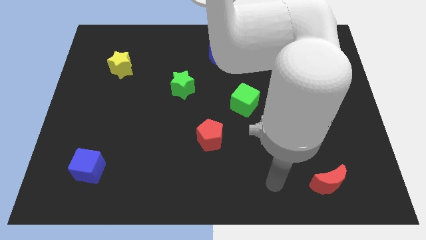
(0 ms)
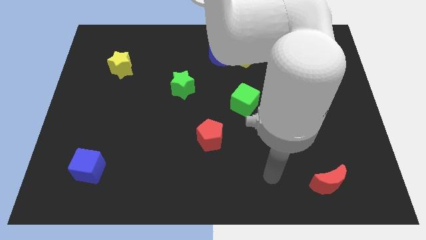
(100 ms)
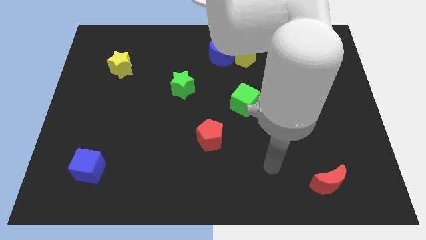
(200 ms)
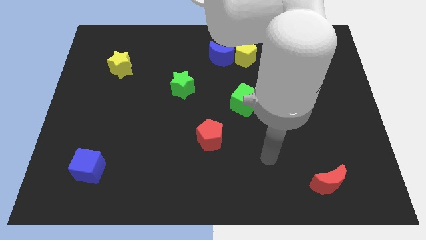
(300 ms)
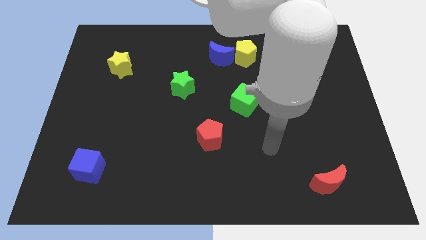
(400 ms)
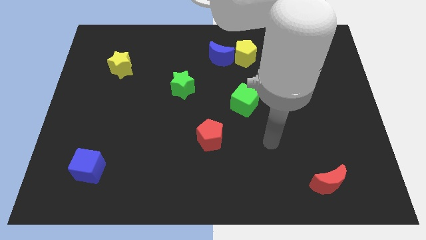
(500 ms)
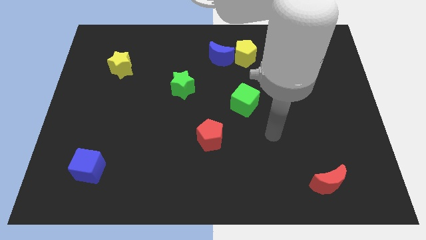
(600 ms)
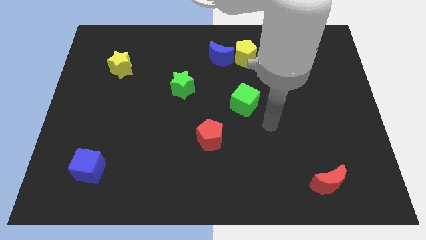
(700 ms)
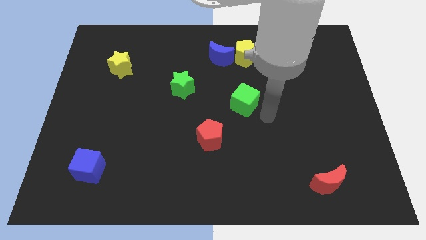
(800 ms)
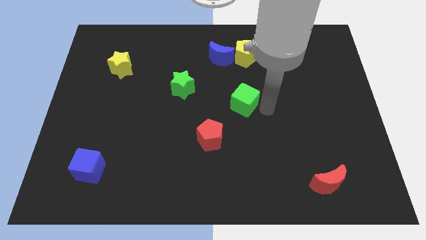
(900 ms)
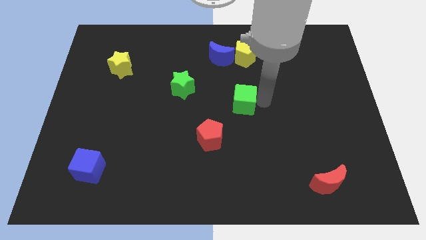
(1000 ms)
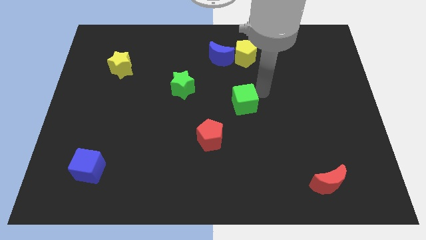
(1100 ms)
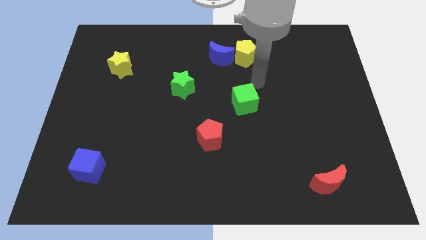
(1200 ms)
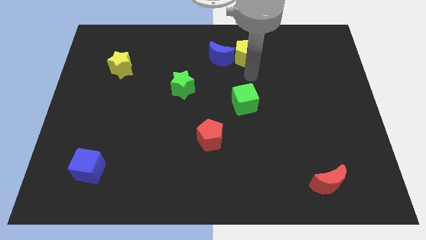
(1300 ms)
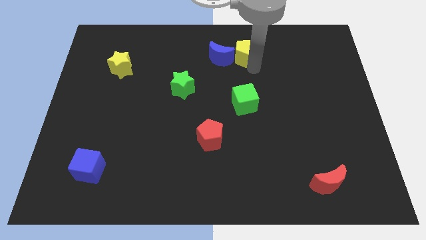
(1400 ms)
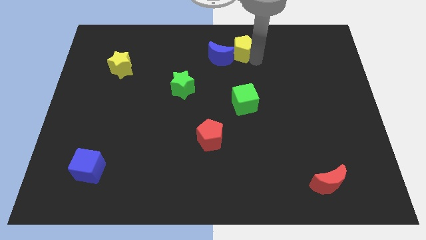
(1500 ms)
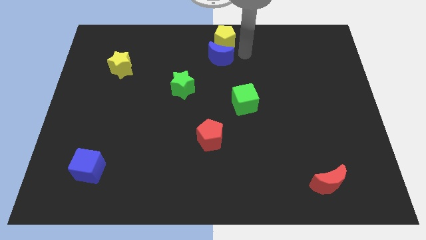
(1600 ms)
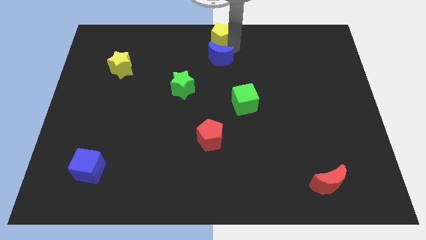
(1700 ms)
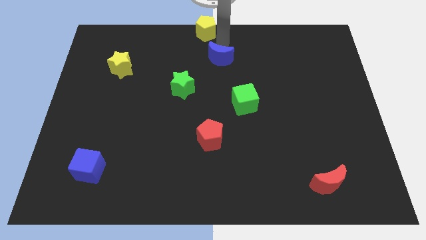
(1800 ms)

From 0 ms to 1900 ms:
move the blue moon away from the yellow pentagon

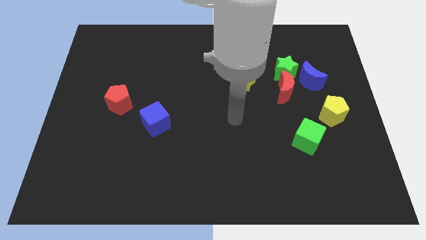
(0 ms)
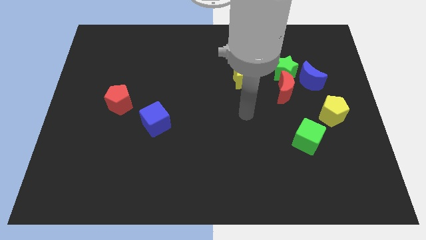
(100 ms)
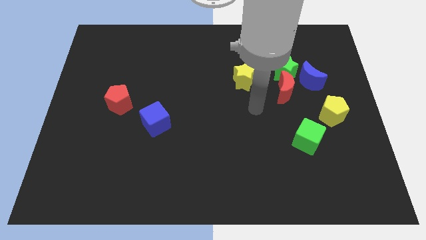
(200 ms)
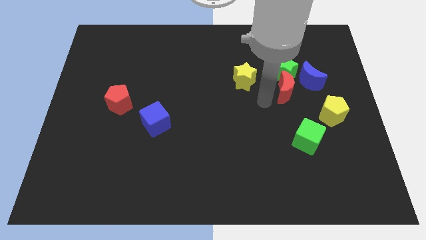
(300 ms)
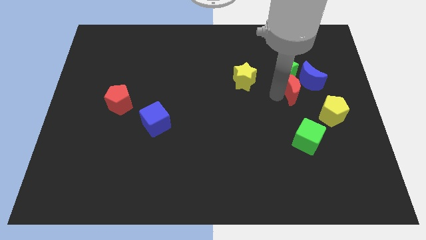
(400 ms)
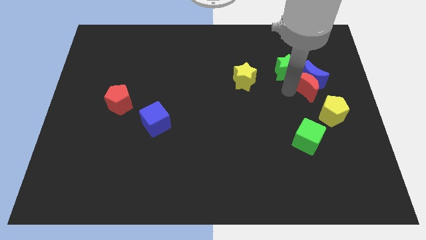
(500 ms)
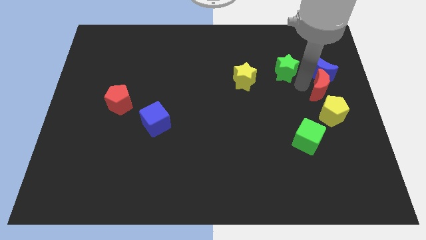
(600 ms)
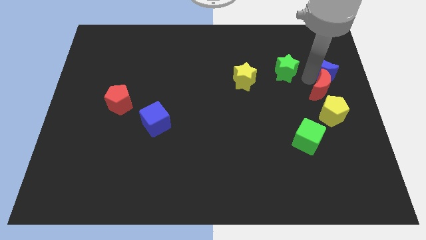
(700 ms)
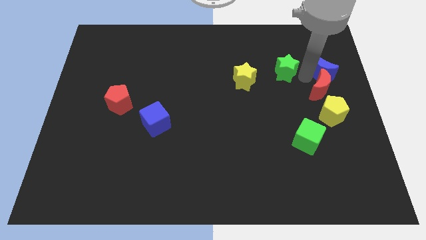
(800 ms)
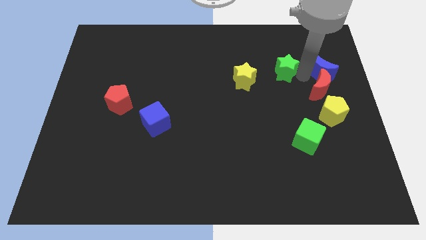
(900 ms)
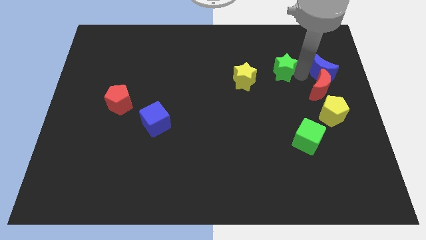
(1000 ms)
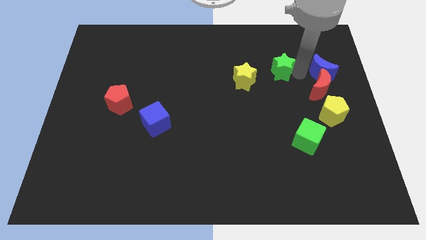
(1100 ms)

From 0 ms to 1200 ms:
pull the green star apart from the red moon and blue moon

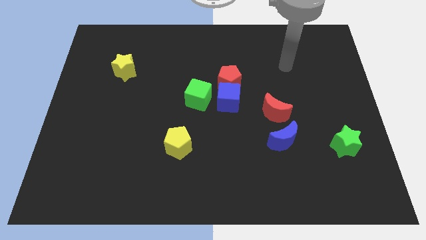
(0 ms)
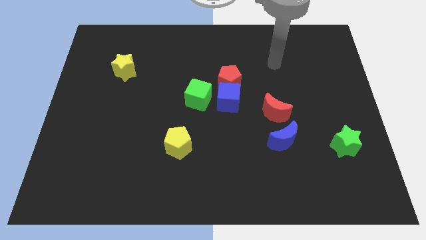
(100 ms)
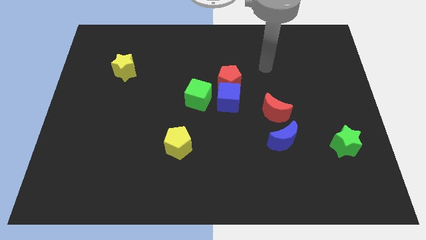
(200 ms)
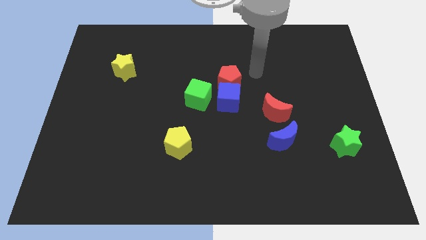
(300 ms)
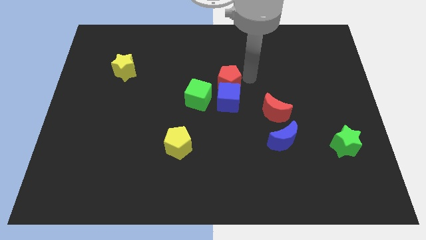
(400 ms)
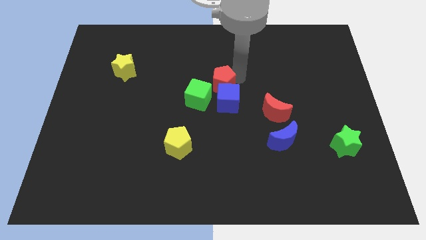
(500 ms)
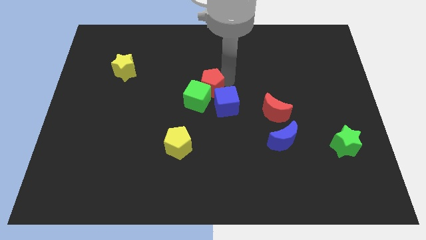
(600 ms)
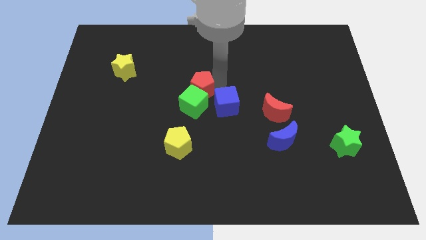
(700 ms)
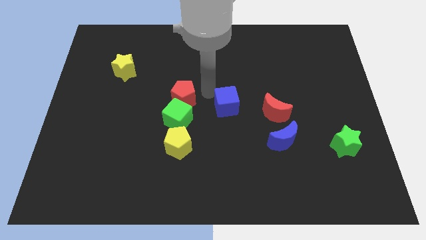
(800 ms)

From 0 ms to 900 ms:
pull the blue cube apart from the red pentagon and green cube

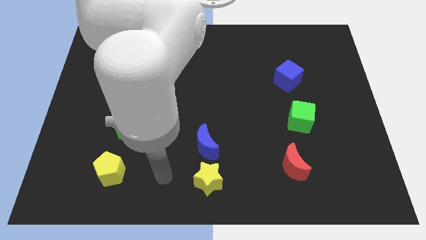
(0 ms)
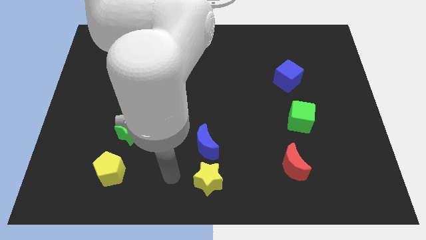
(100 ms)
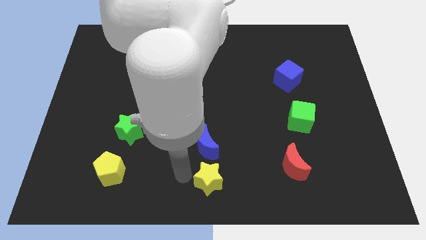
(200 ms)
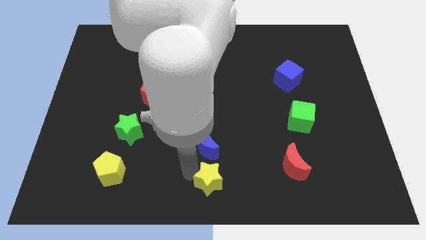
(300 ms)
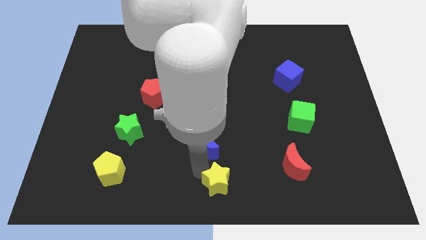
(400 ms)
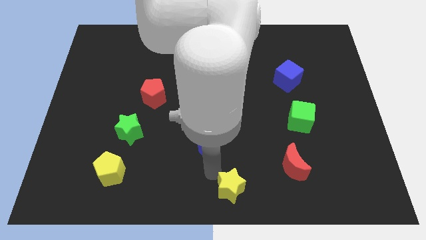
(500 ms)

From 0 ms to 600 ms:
separate the blue moon from the yellow star

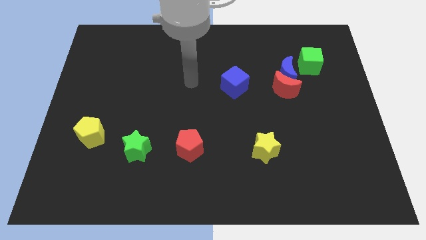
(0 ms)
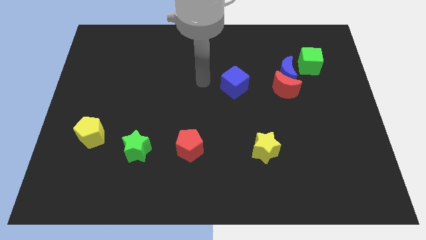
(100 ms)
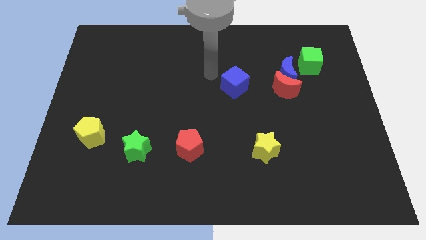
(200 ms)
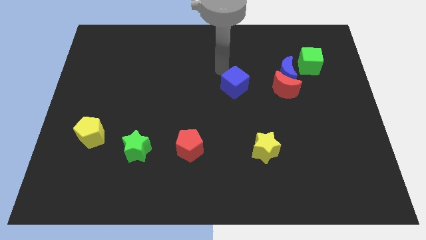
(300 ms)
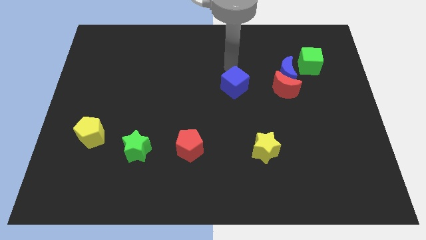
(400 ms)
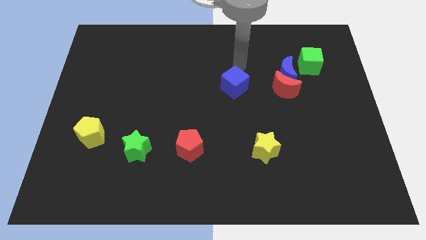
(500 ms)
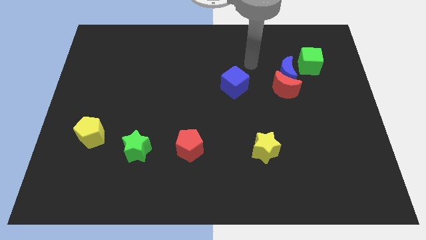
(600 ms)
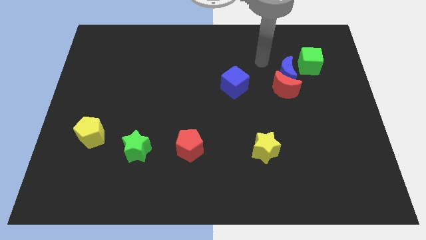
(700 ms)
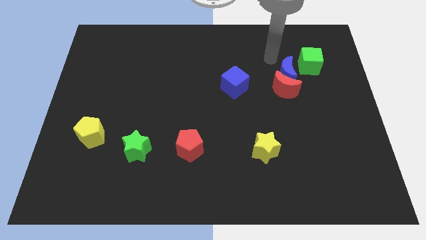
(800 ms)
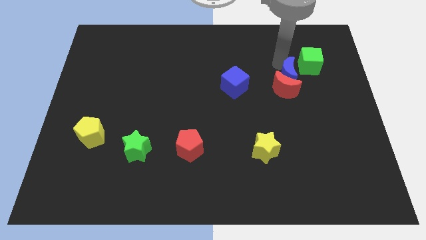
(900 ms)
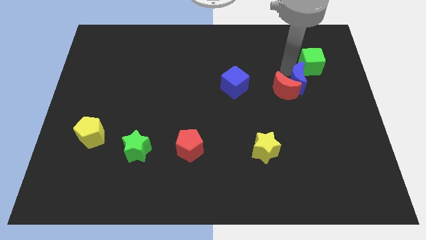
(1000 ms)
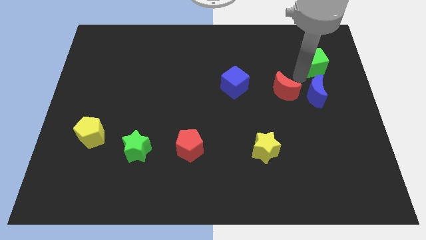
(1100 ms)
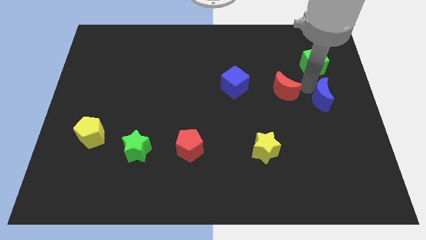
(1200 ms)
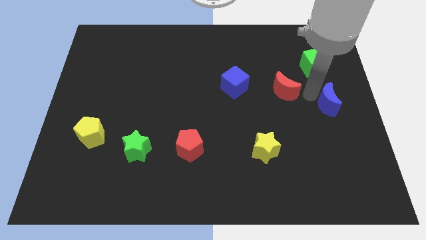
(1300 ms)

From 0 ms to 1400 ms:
separate the red moon from the blue moon

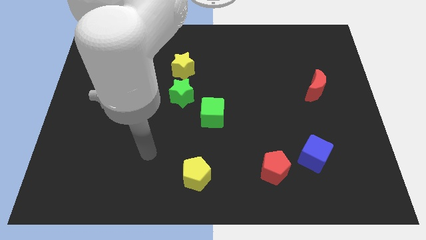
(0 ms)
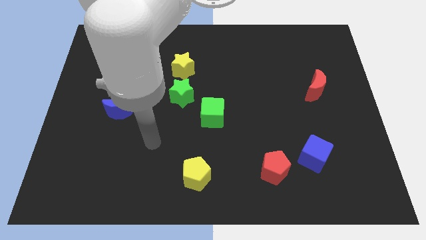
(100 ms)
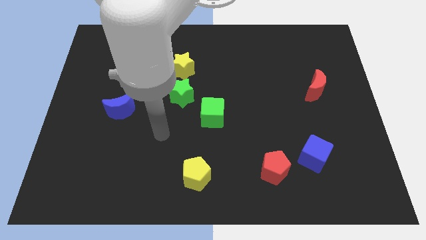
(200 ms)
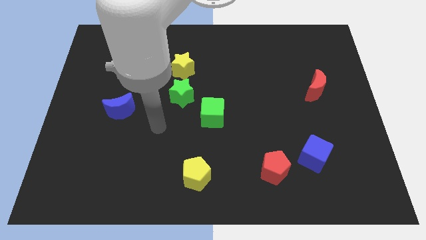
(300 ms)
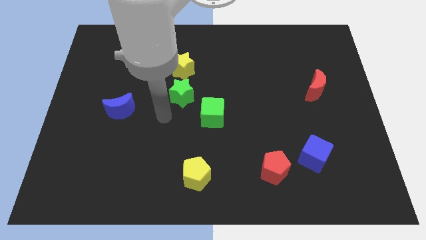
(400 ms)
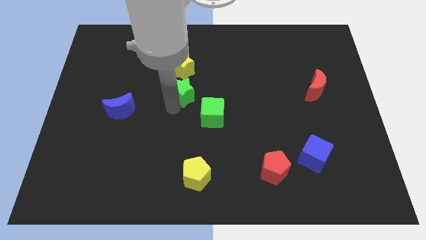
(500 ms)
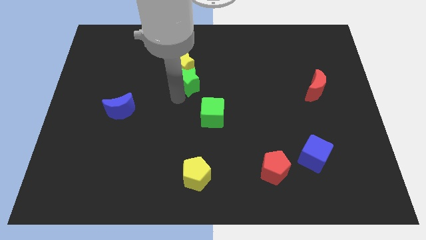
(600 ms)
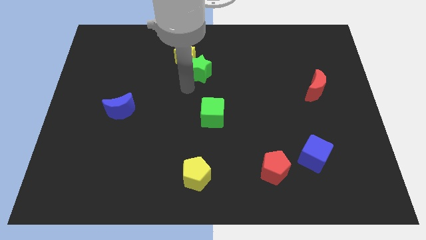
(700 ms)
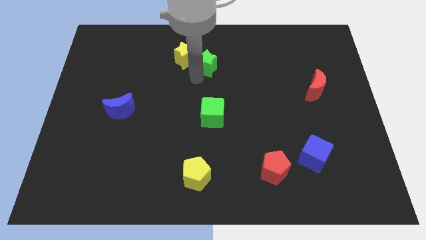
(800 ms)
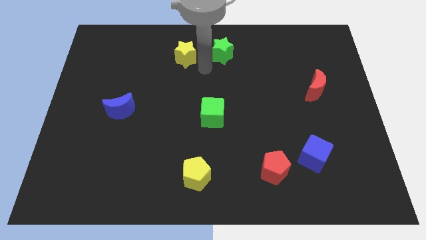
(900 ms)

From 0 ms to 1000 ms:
move the yellow star away from the green star

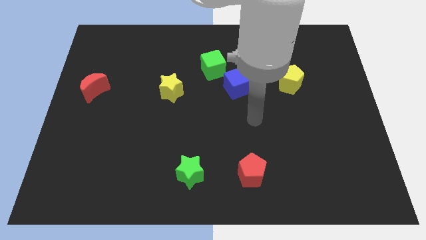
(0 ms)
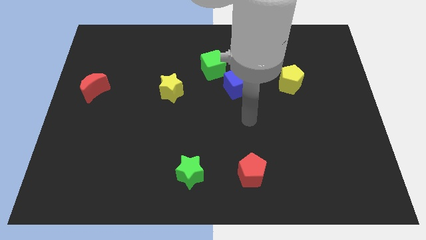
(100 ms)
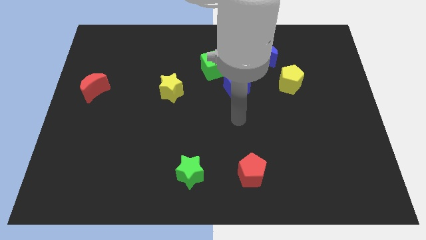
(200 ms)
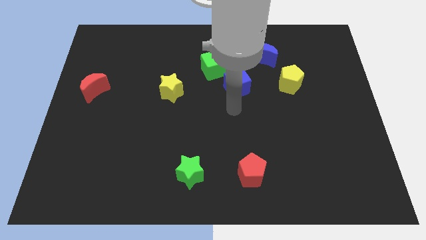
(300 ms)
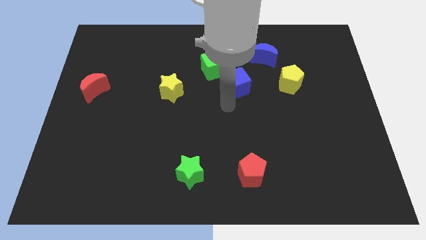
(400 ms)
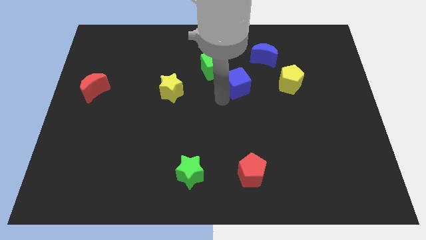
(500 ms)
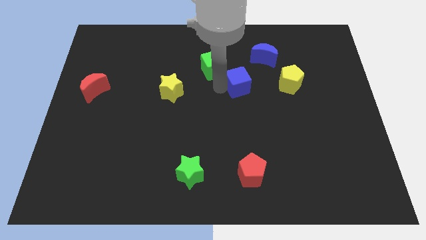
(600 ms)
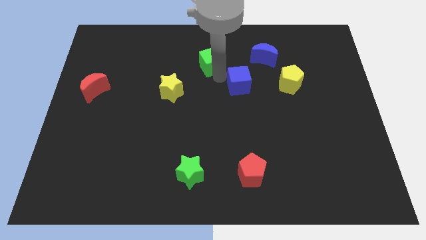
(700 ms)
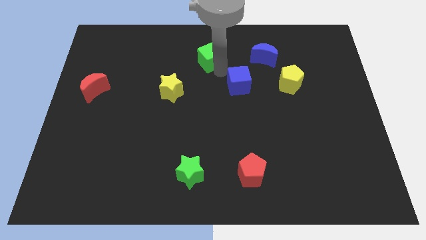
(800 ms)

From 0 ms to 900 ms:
separate the blue cube from the green cube

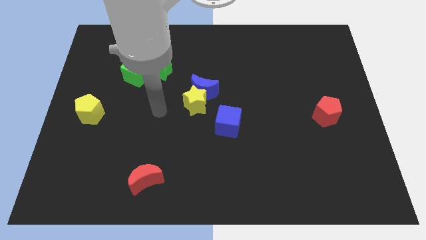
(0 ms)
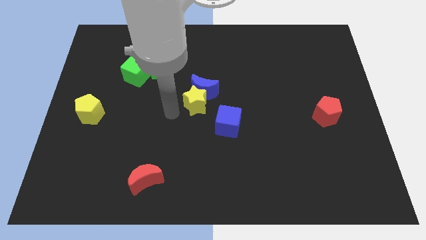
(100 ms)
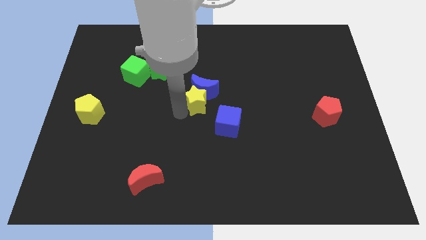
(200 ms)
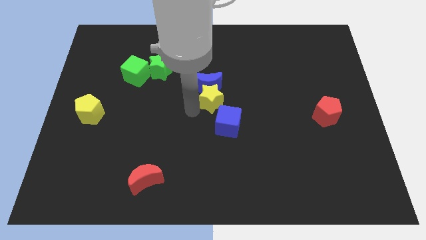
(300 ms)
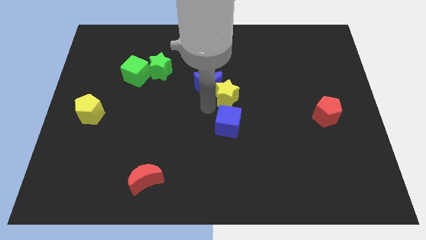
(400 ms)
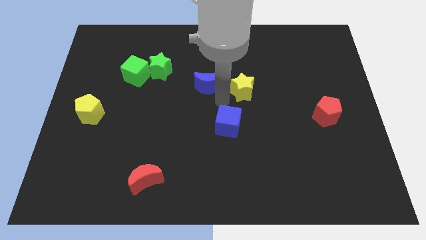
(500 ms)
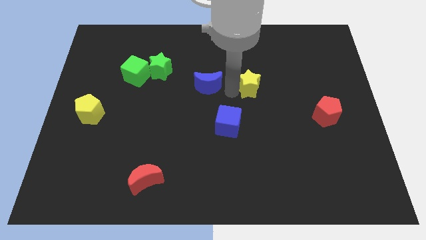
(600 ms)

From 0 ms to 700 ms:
move the blue moon away from the yellow star

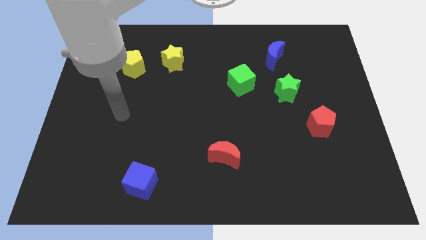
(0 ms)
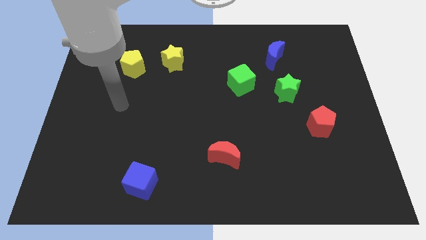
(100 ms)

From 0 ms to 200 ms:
separate the yellow star from the yellow pentagon

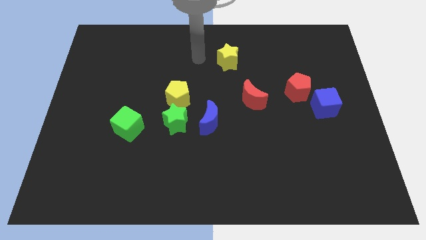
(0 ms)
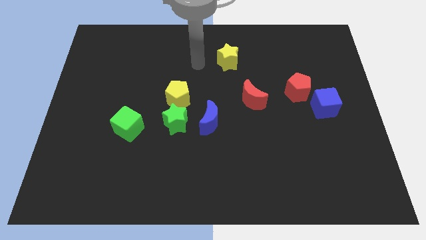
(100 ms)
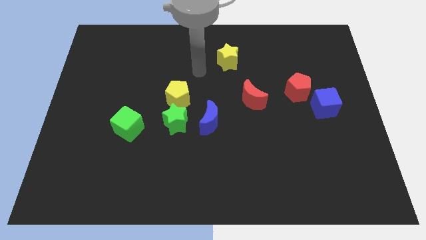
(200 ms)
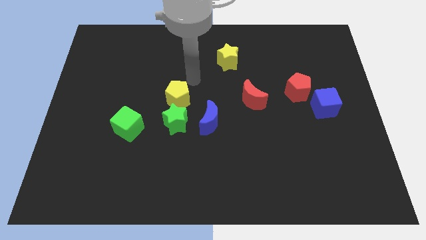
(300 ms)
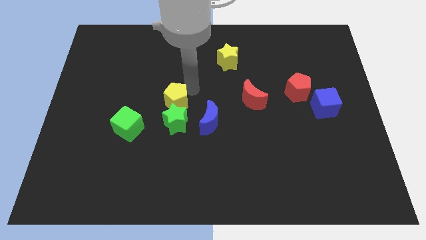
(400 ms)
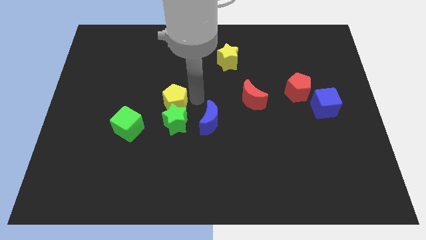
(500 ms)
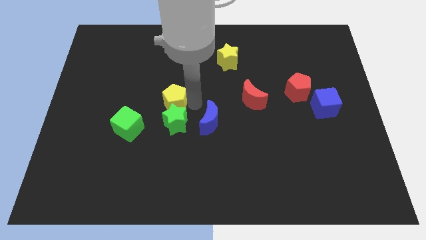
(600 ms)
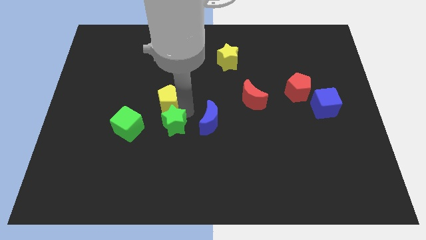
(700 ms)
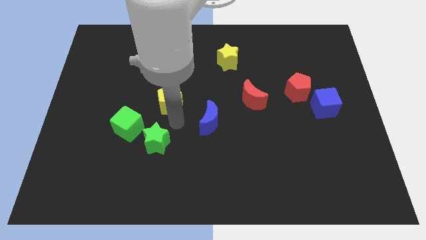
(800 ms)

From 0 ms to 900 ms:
separate the yellow pentagon from the green star
